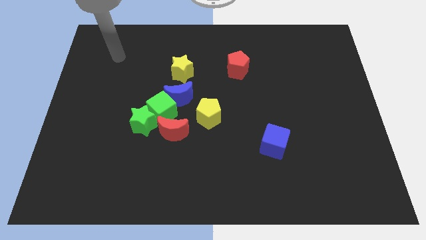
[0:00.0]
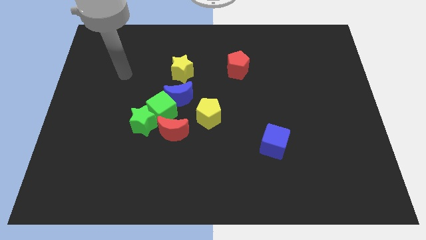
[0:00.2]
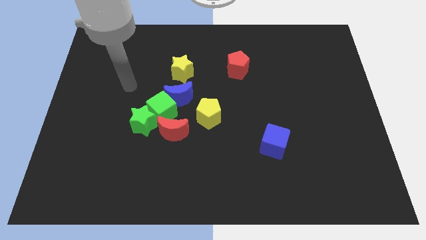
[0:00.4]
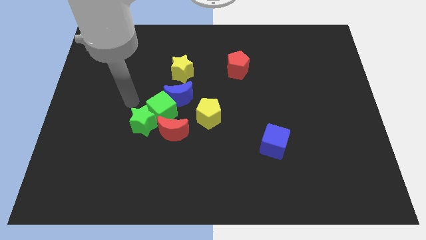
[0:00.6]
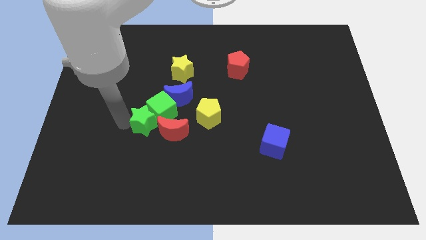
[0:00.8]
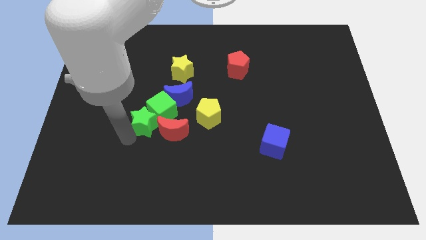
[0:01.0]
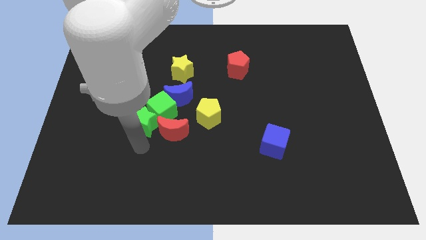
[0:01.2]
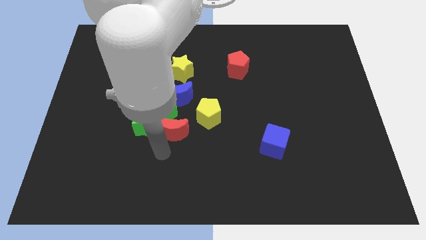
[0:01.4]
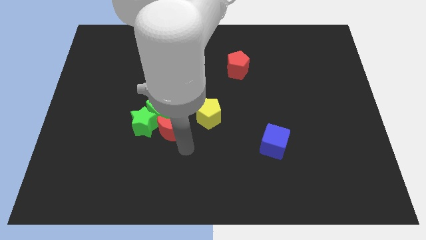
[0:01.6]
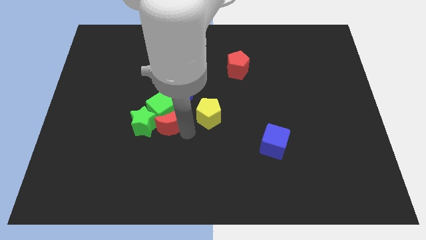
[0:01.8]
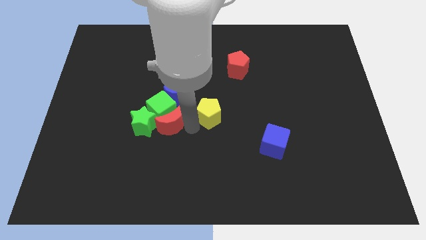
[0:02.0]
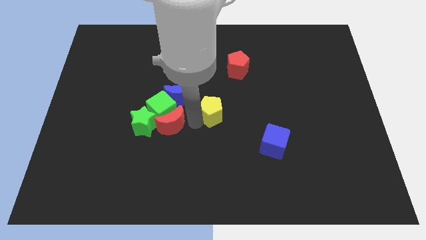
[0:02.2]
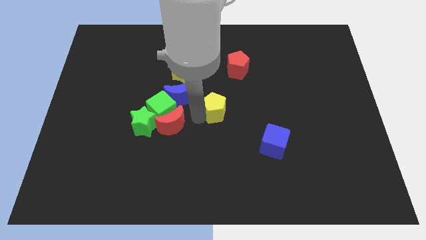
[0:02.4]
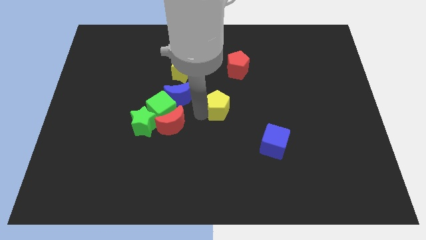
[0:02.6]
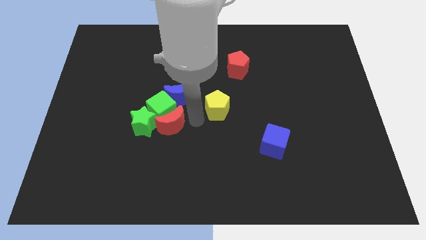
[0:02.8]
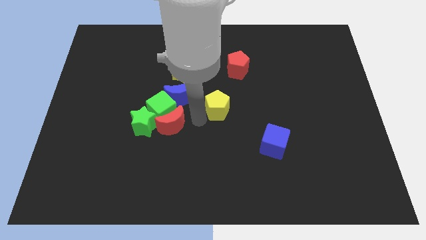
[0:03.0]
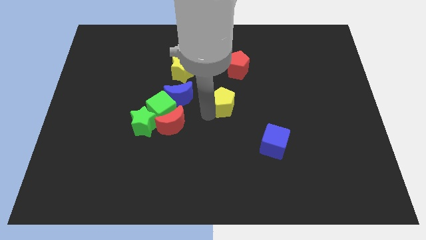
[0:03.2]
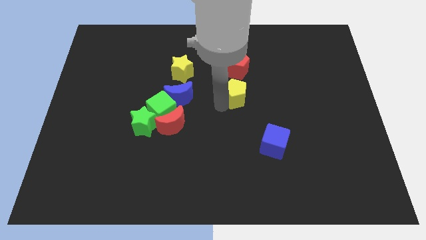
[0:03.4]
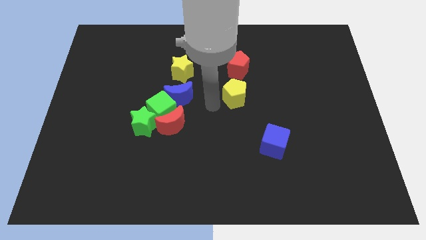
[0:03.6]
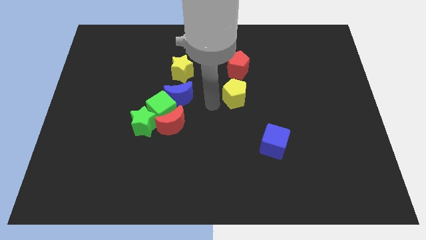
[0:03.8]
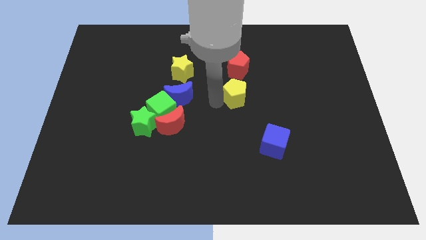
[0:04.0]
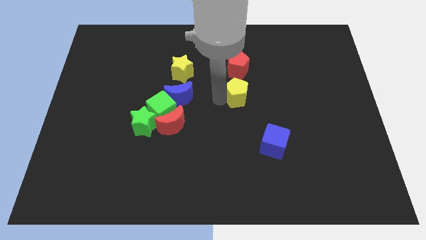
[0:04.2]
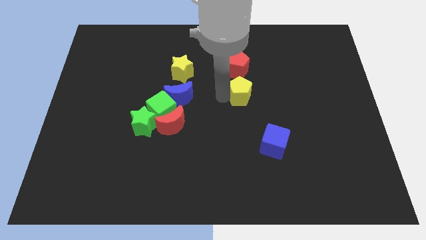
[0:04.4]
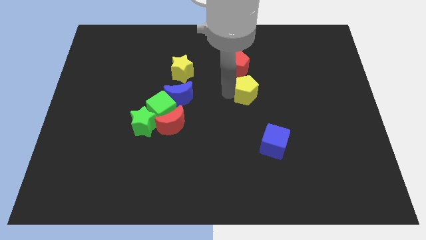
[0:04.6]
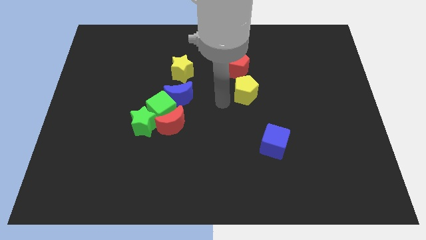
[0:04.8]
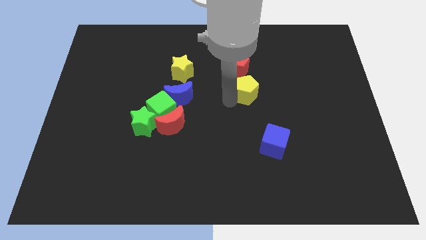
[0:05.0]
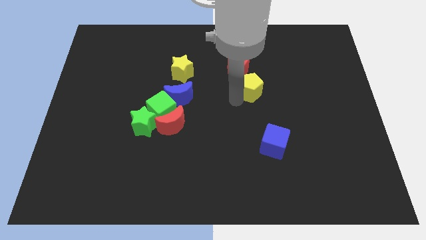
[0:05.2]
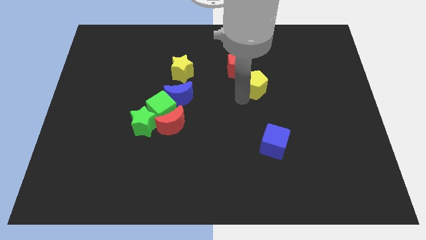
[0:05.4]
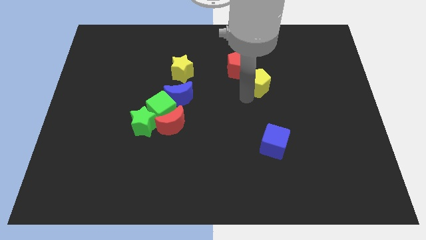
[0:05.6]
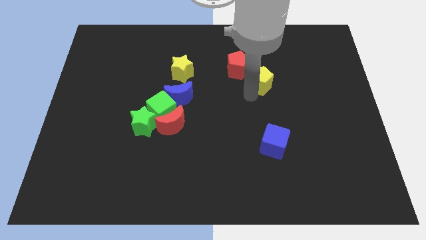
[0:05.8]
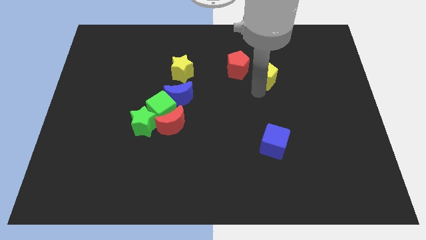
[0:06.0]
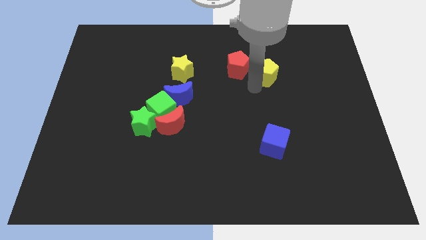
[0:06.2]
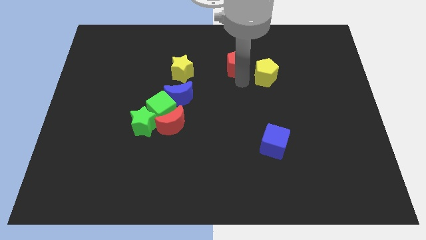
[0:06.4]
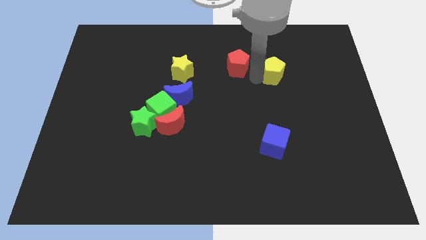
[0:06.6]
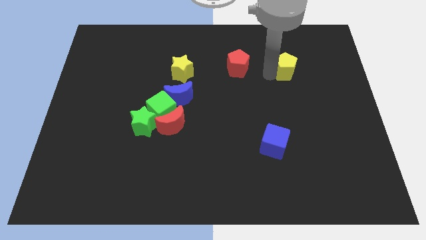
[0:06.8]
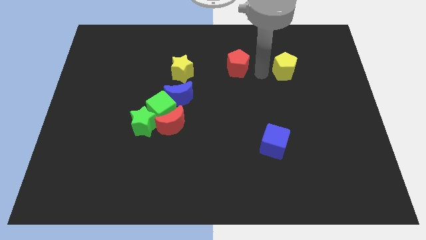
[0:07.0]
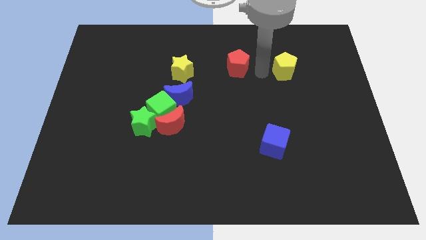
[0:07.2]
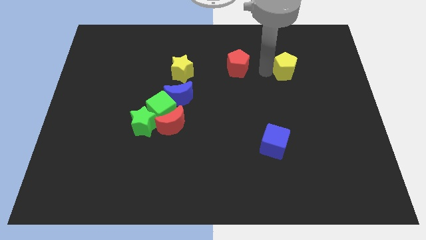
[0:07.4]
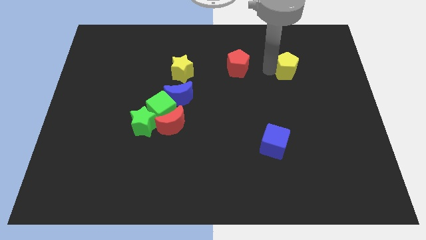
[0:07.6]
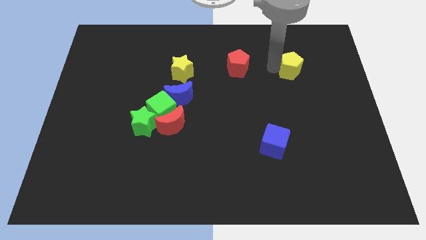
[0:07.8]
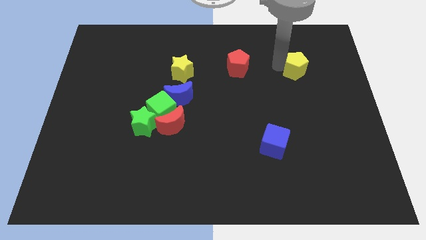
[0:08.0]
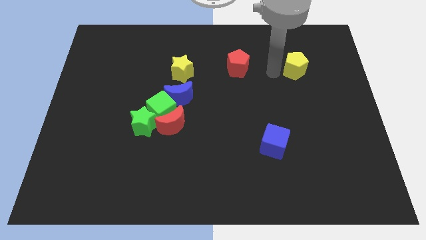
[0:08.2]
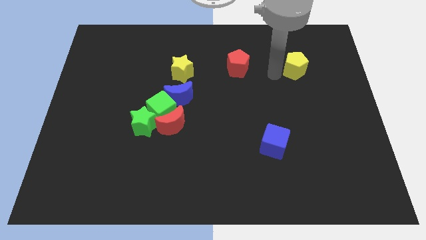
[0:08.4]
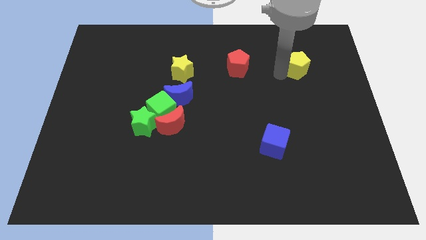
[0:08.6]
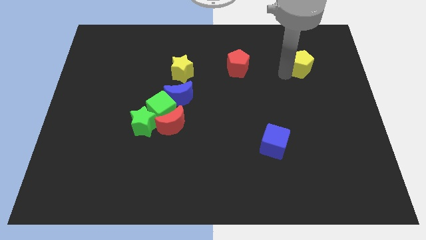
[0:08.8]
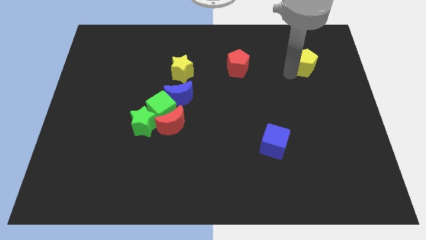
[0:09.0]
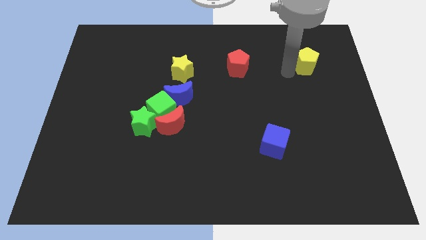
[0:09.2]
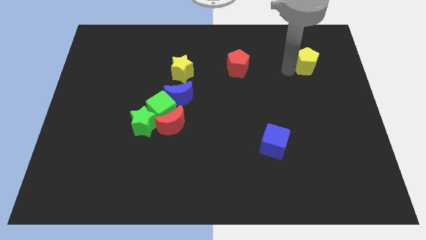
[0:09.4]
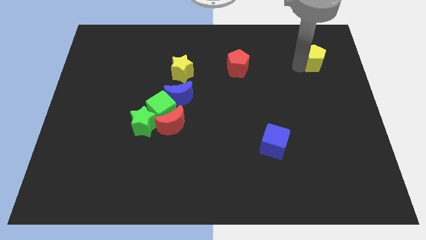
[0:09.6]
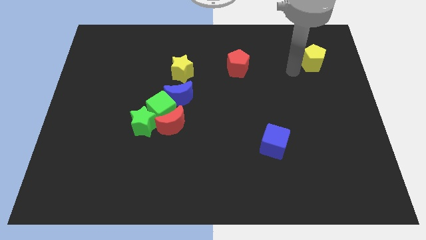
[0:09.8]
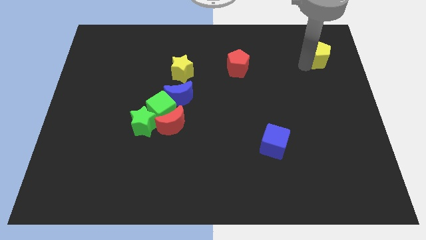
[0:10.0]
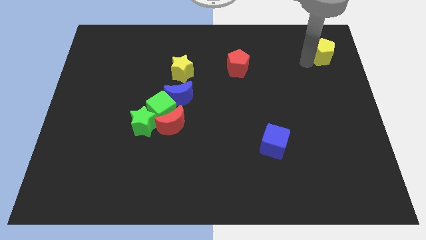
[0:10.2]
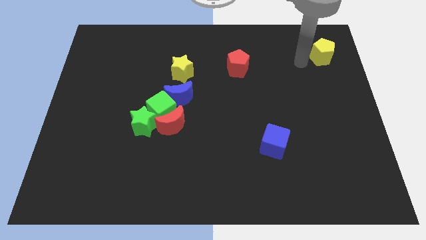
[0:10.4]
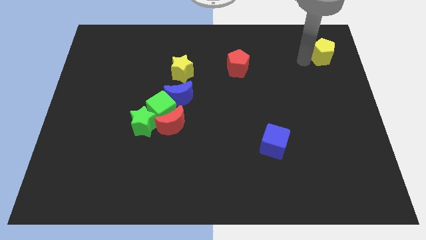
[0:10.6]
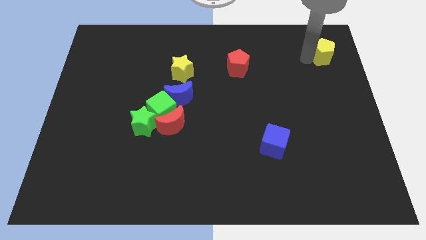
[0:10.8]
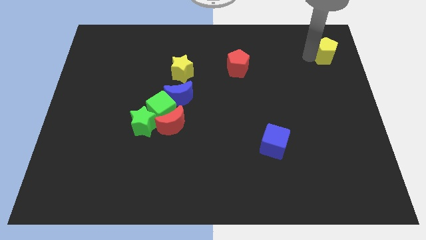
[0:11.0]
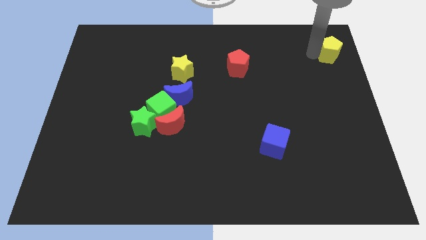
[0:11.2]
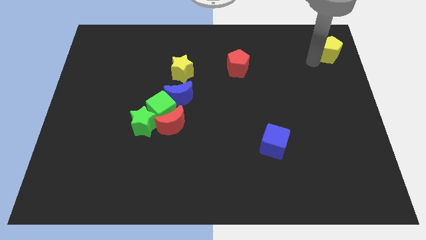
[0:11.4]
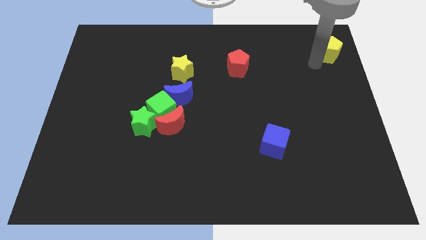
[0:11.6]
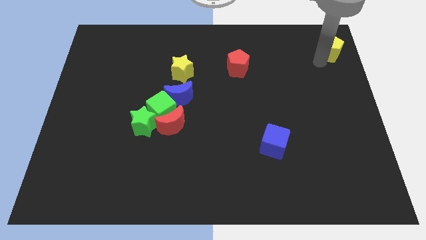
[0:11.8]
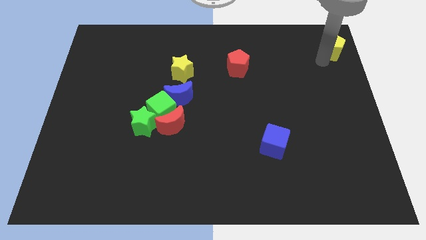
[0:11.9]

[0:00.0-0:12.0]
push the yellow pentagon to the top right of the board

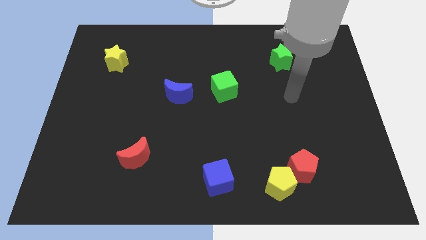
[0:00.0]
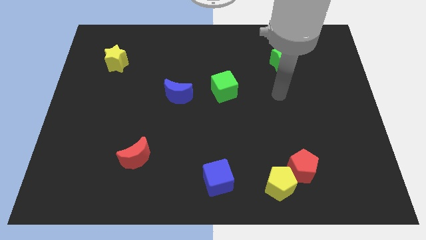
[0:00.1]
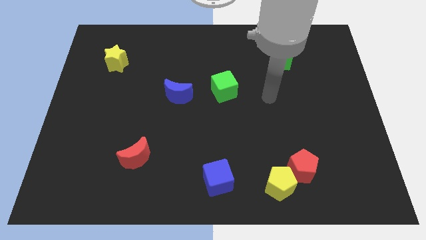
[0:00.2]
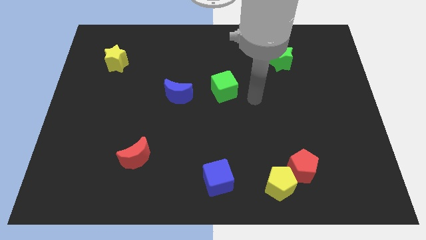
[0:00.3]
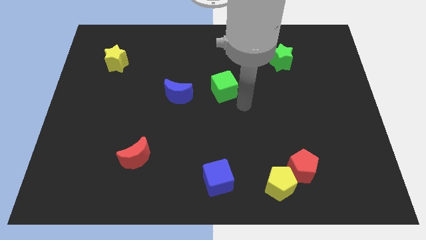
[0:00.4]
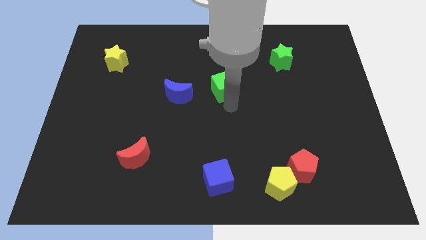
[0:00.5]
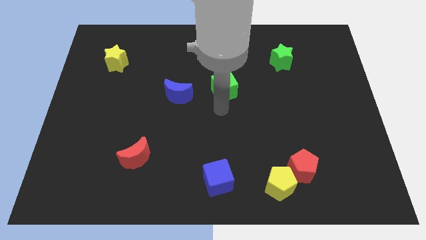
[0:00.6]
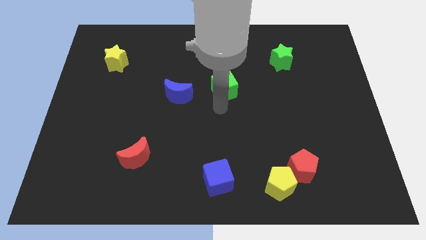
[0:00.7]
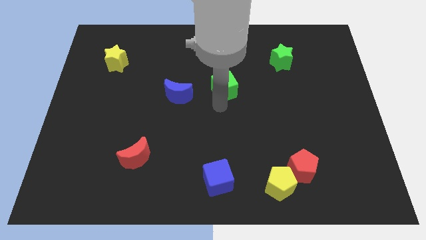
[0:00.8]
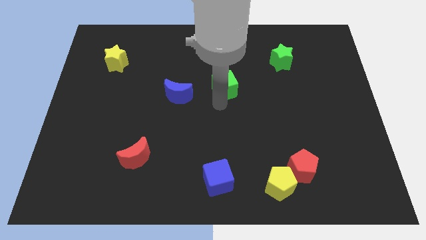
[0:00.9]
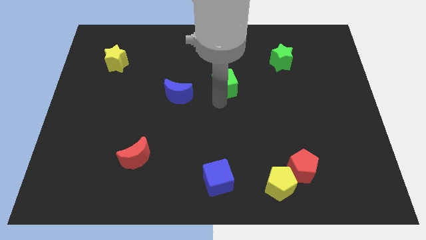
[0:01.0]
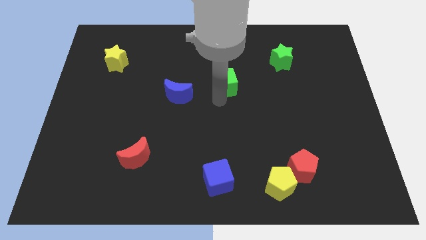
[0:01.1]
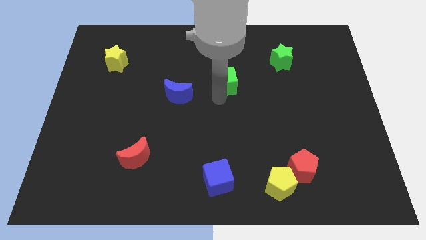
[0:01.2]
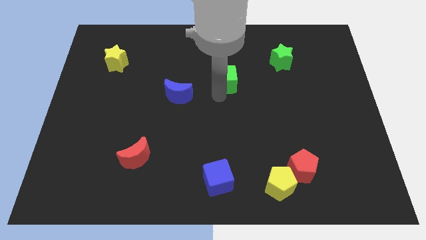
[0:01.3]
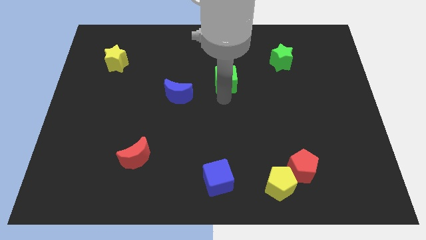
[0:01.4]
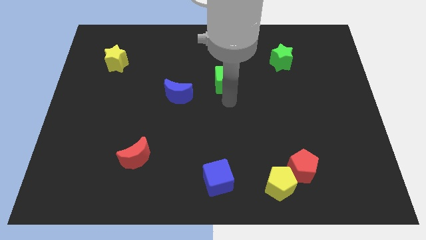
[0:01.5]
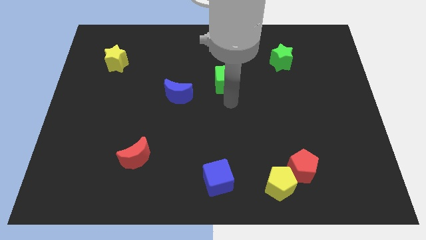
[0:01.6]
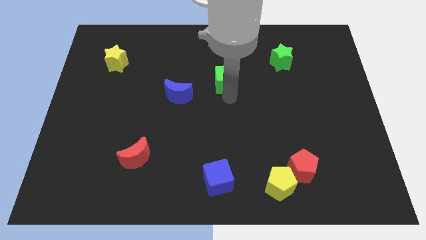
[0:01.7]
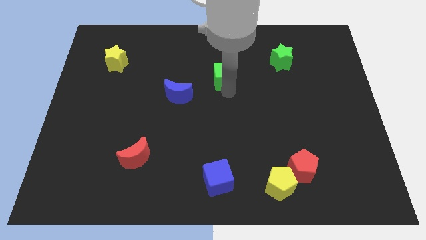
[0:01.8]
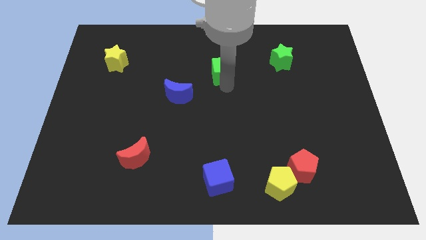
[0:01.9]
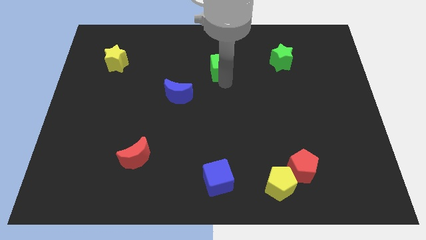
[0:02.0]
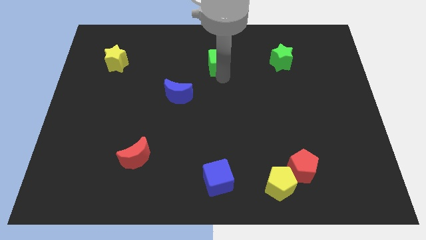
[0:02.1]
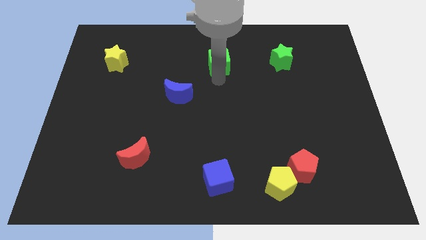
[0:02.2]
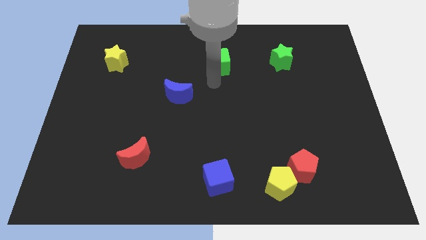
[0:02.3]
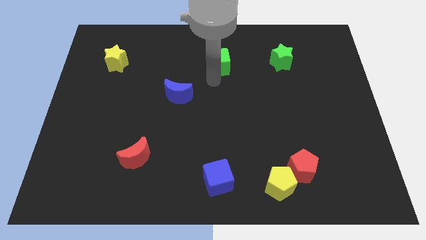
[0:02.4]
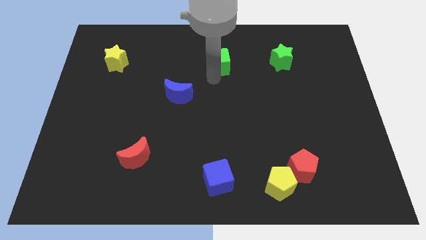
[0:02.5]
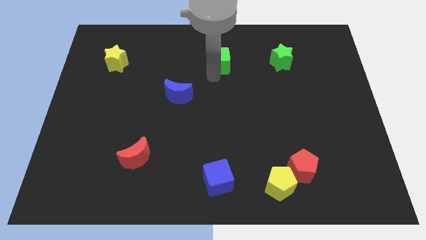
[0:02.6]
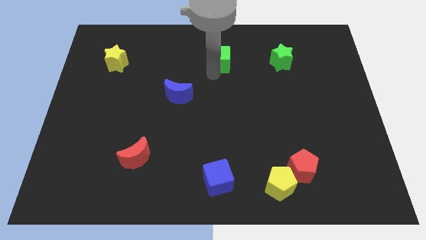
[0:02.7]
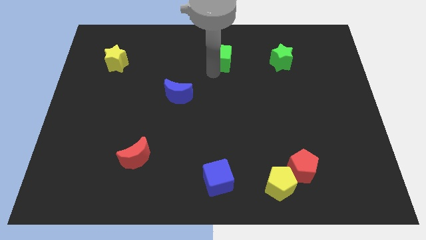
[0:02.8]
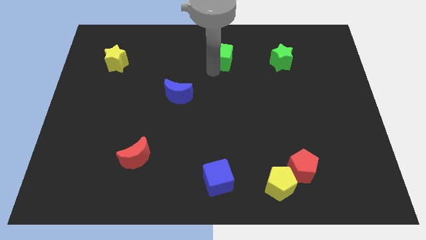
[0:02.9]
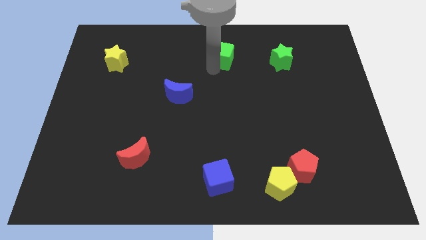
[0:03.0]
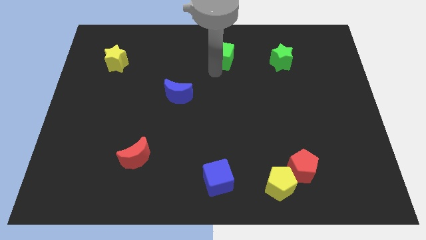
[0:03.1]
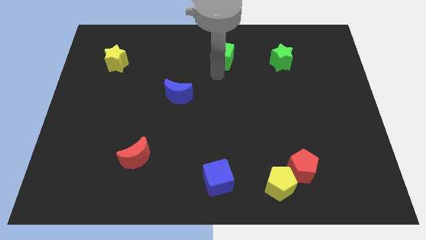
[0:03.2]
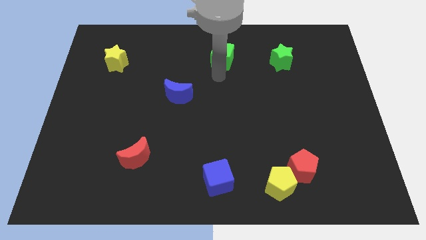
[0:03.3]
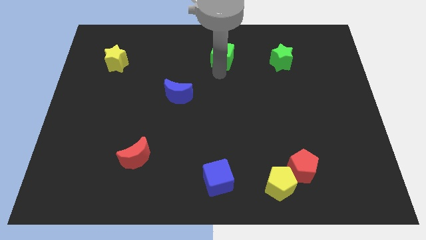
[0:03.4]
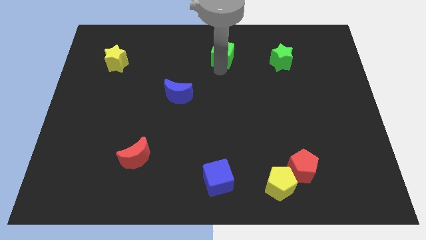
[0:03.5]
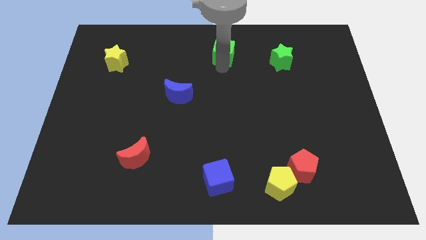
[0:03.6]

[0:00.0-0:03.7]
put the green cube to the top side
